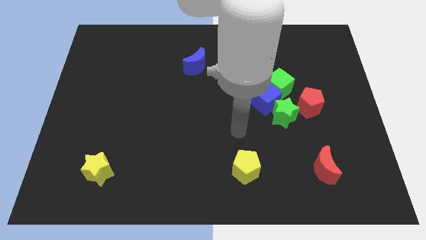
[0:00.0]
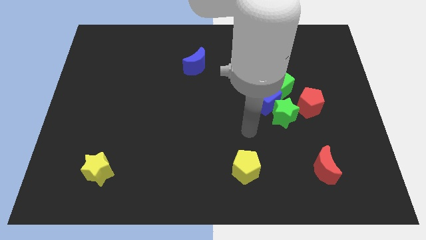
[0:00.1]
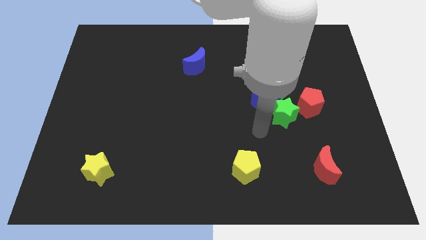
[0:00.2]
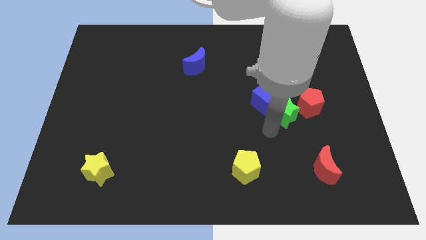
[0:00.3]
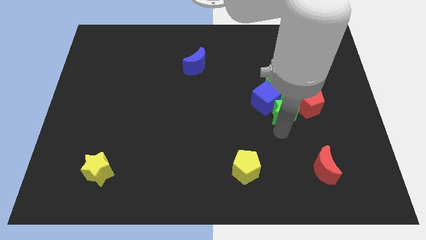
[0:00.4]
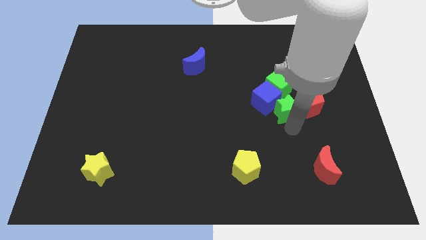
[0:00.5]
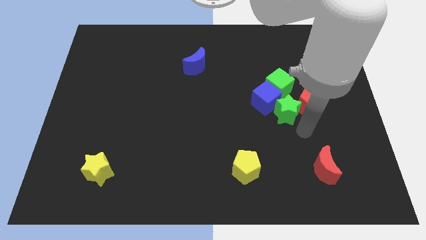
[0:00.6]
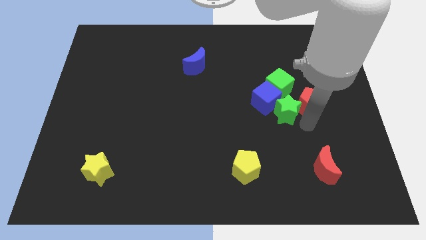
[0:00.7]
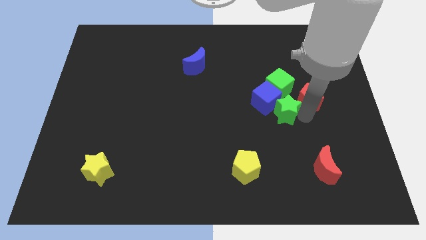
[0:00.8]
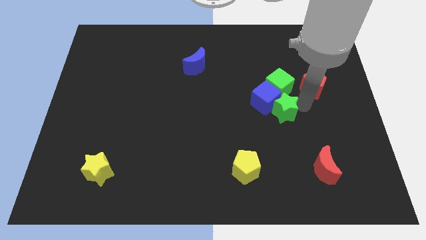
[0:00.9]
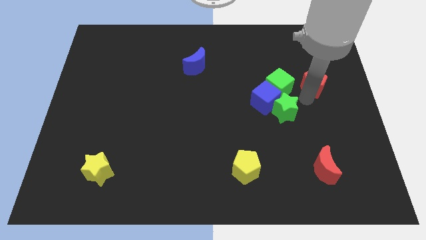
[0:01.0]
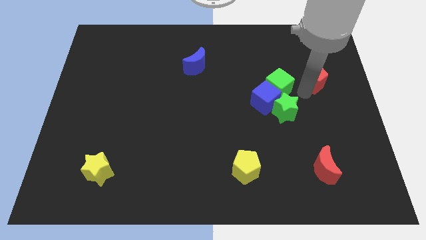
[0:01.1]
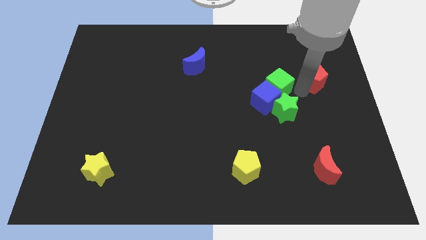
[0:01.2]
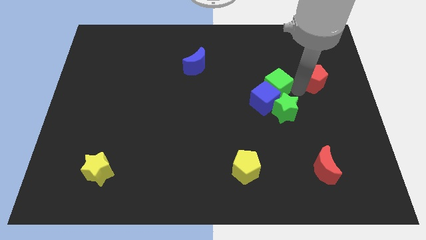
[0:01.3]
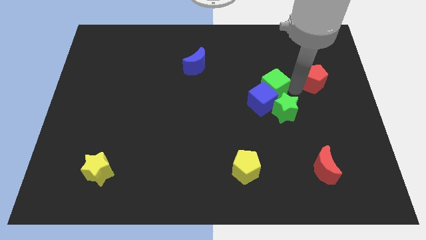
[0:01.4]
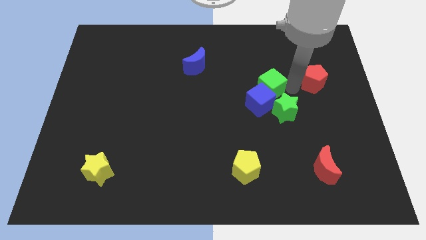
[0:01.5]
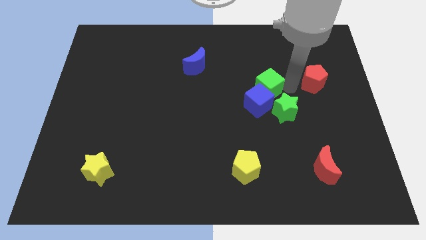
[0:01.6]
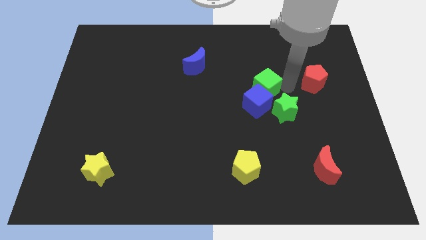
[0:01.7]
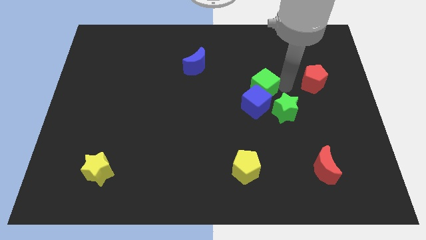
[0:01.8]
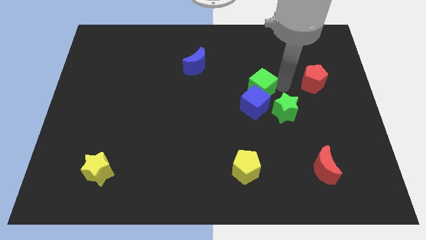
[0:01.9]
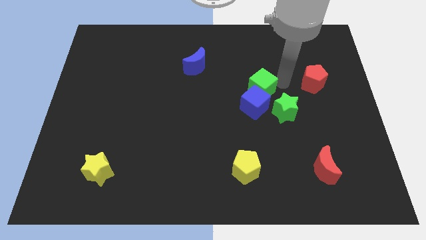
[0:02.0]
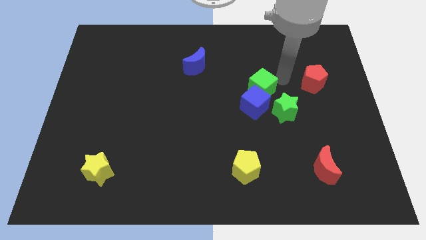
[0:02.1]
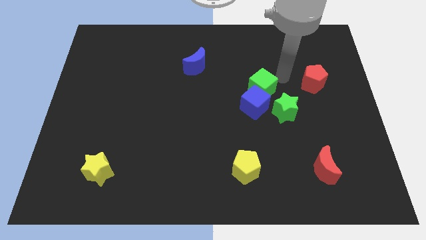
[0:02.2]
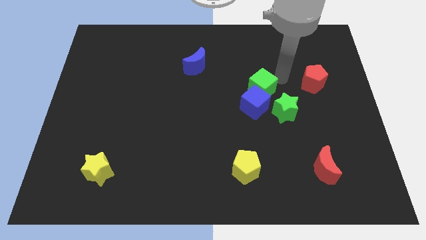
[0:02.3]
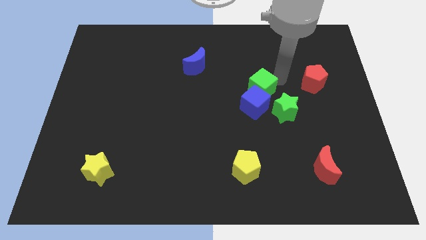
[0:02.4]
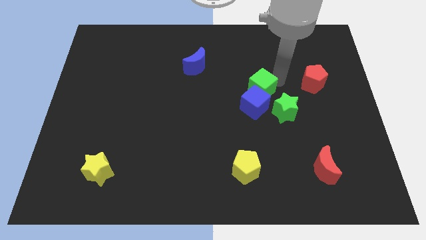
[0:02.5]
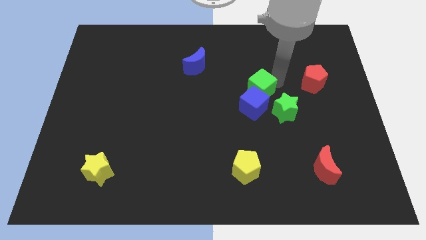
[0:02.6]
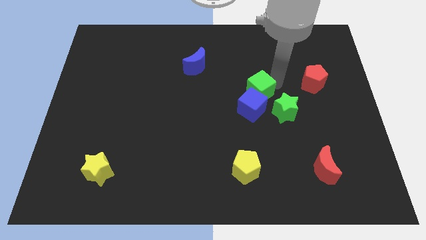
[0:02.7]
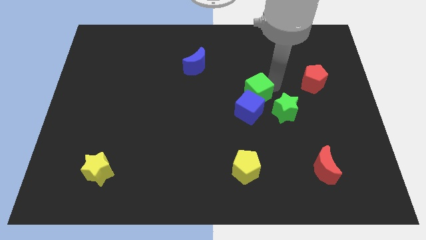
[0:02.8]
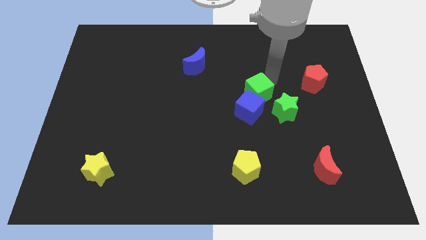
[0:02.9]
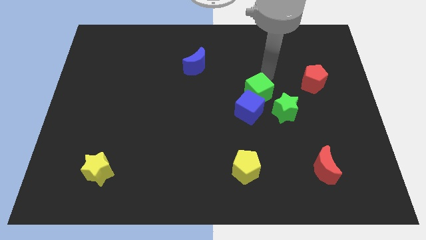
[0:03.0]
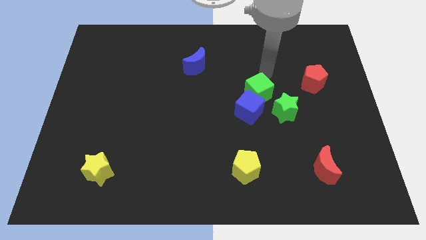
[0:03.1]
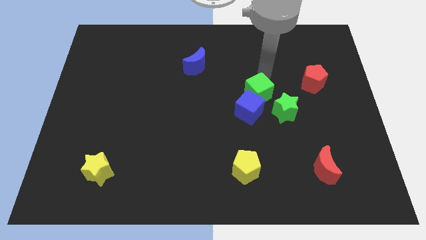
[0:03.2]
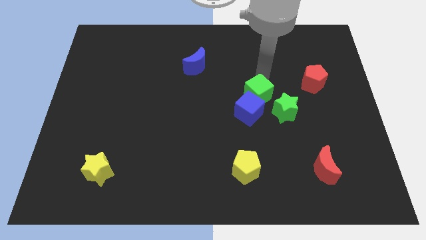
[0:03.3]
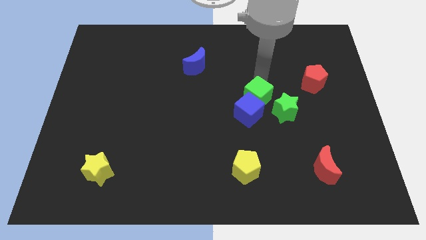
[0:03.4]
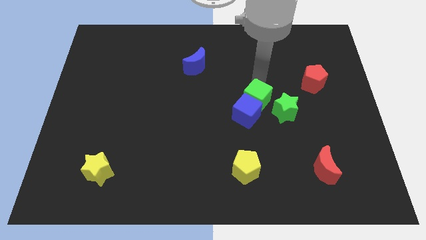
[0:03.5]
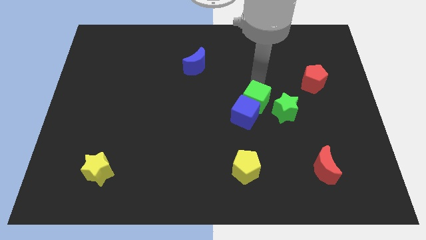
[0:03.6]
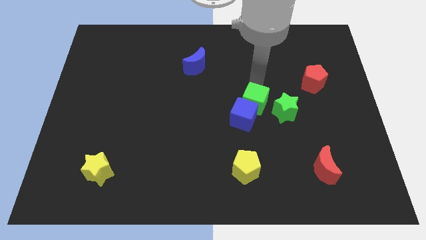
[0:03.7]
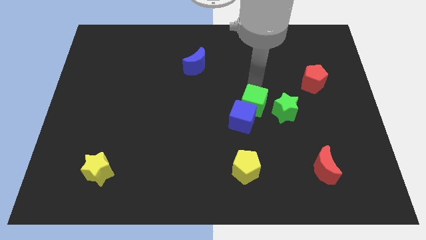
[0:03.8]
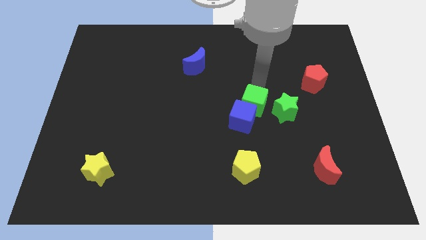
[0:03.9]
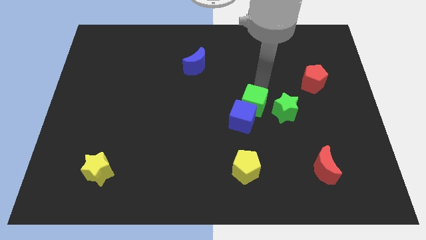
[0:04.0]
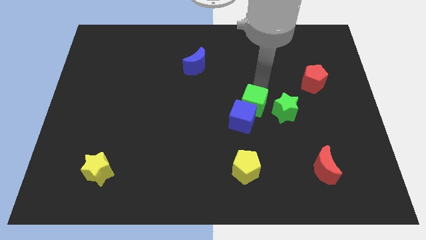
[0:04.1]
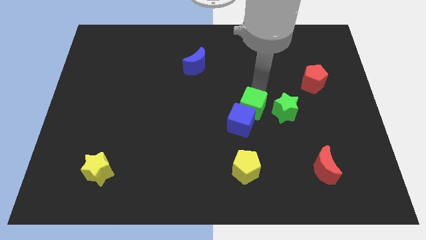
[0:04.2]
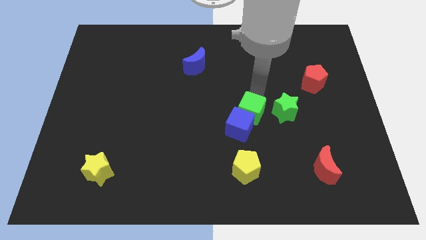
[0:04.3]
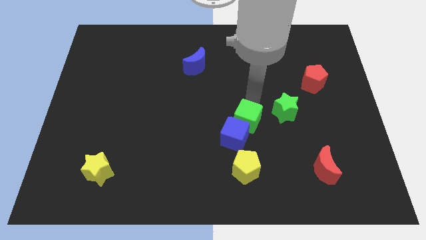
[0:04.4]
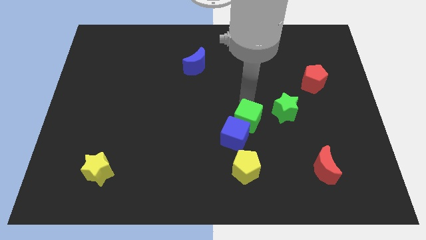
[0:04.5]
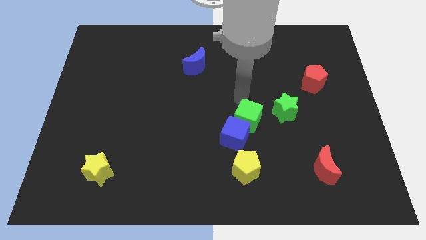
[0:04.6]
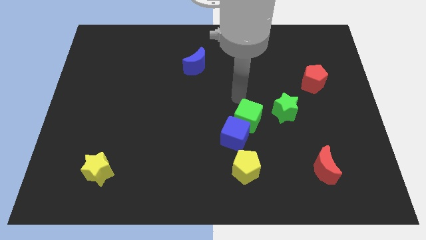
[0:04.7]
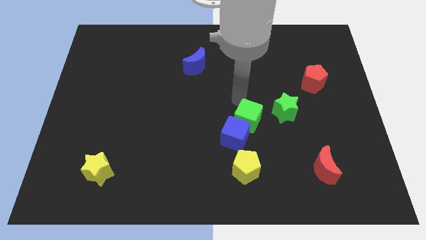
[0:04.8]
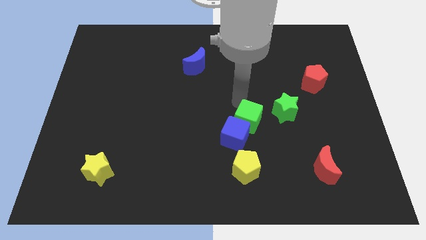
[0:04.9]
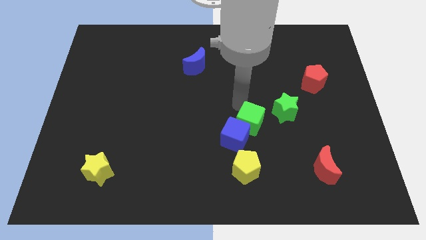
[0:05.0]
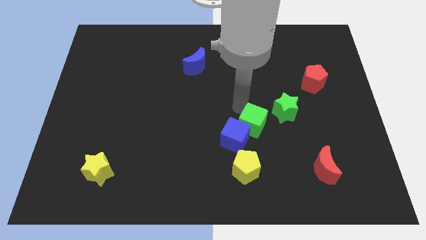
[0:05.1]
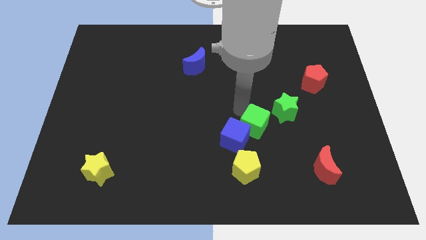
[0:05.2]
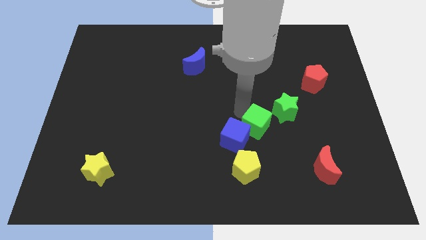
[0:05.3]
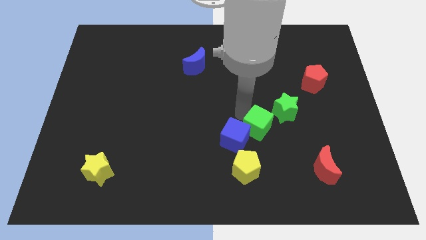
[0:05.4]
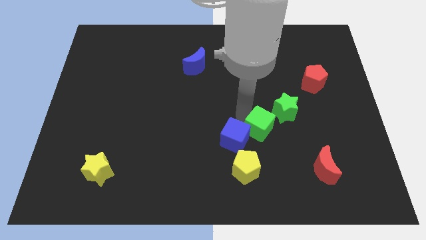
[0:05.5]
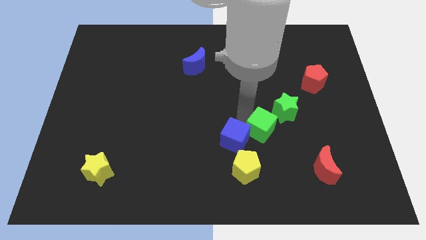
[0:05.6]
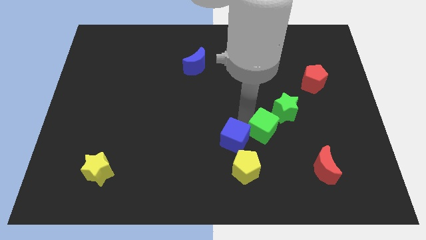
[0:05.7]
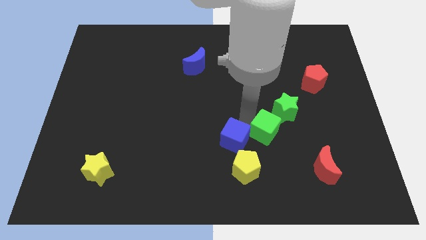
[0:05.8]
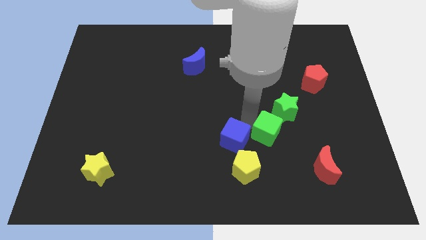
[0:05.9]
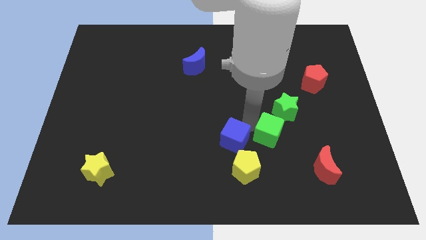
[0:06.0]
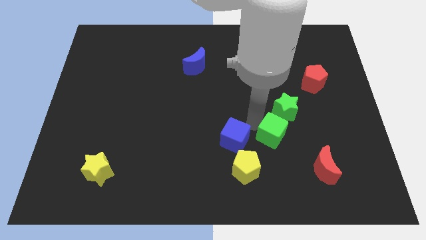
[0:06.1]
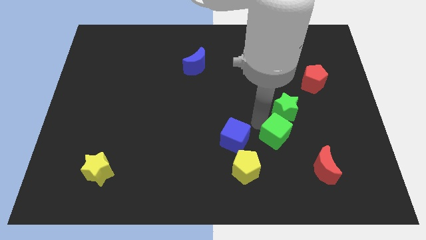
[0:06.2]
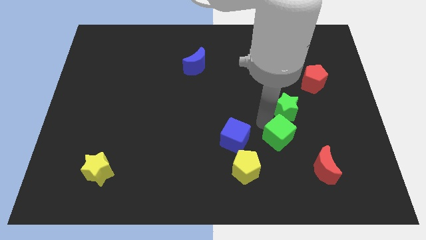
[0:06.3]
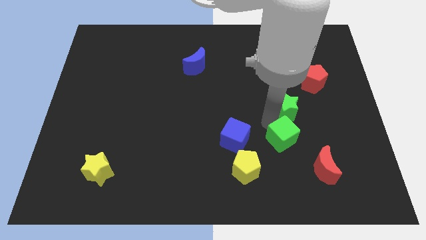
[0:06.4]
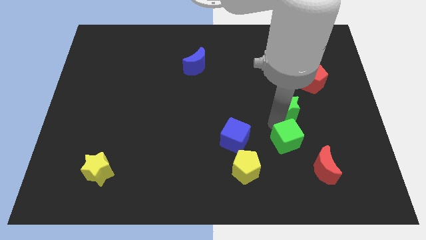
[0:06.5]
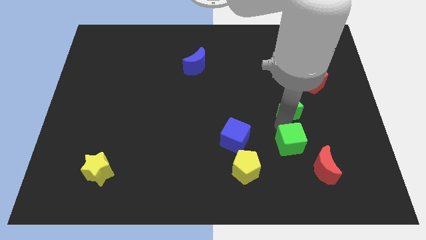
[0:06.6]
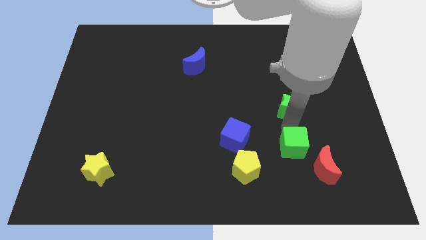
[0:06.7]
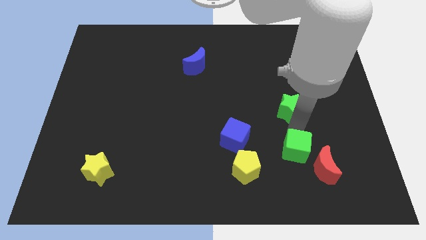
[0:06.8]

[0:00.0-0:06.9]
push the green cube to the left side of the red moon

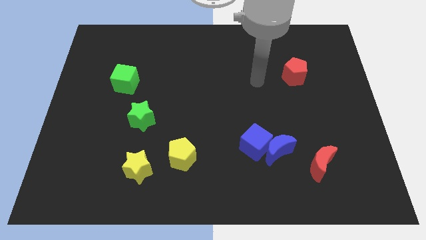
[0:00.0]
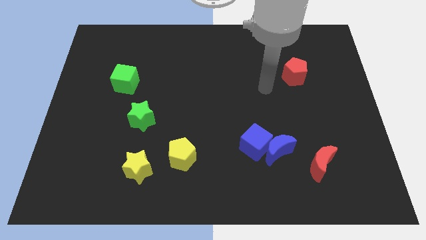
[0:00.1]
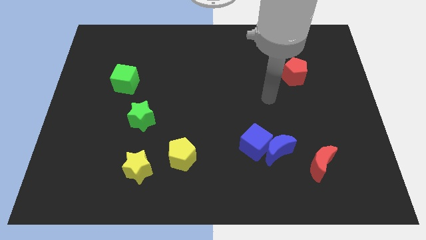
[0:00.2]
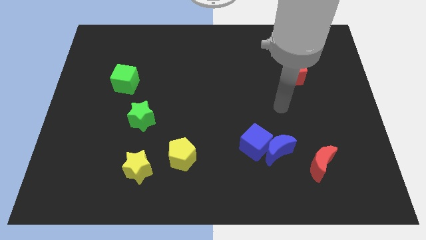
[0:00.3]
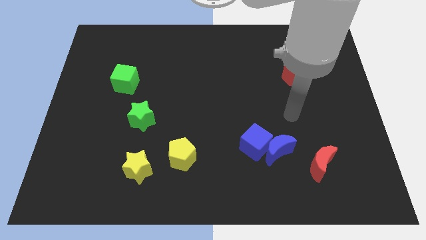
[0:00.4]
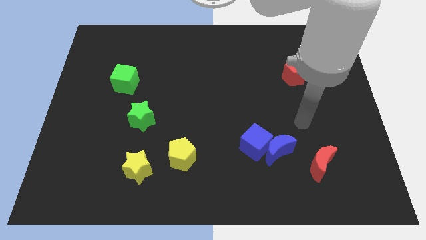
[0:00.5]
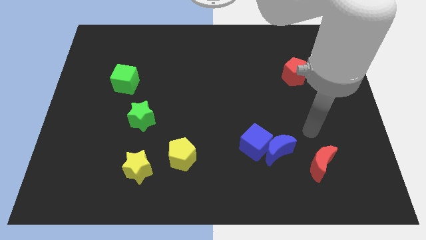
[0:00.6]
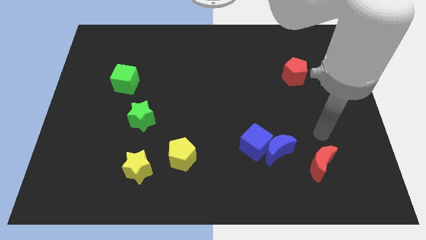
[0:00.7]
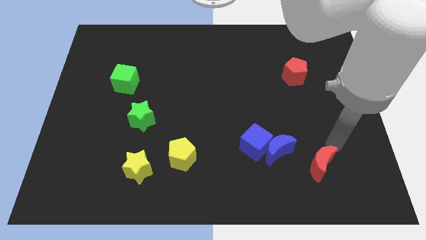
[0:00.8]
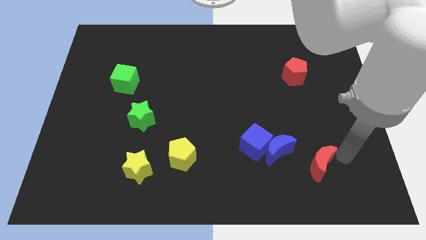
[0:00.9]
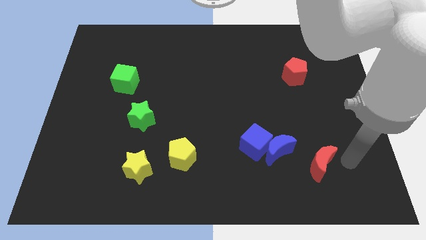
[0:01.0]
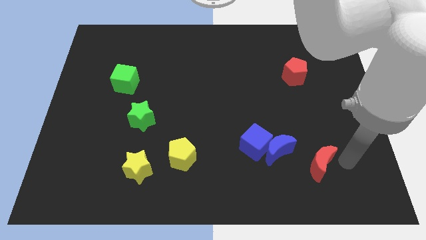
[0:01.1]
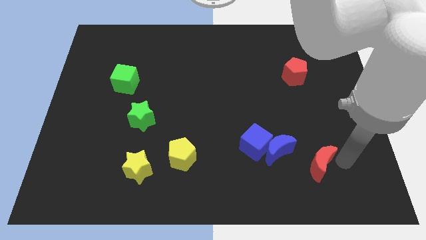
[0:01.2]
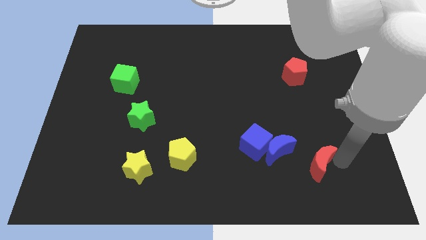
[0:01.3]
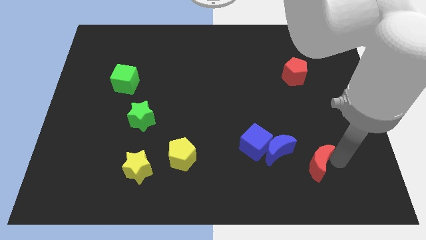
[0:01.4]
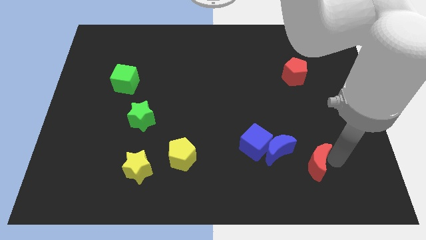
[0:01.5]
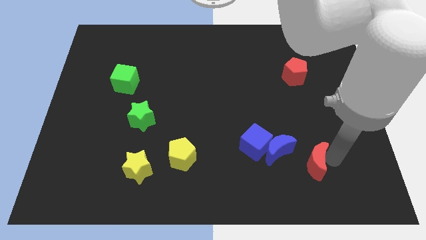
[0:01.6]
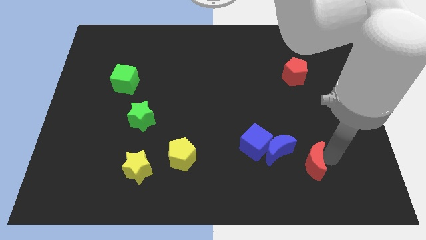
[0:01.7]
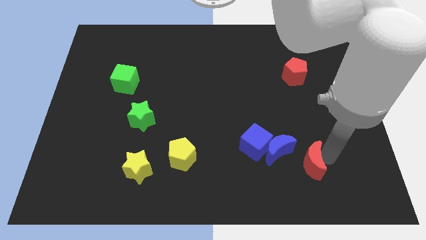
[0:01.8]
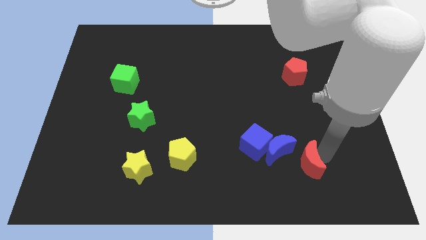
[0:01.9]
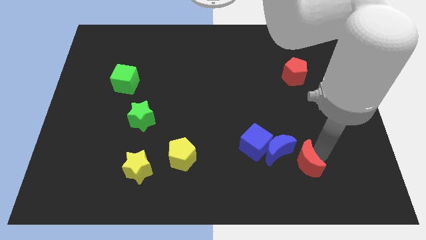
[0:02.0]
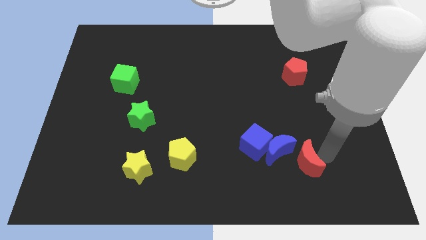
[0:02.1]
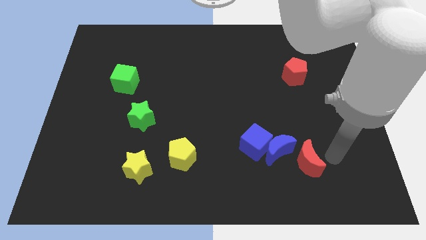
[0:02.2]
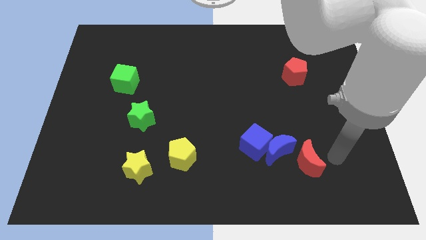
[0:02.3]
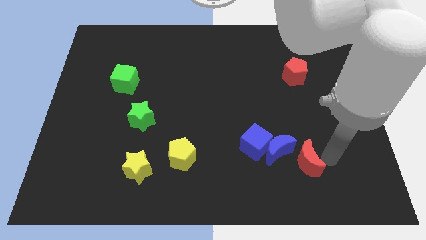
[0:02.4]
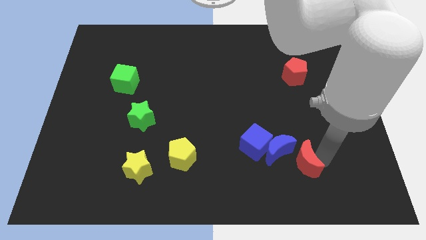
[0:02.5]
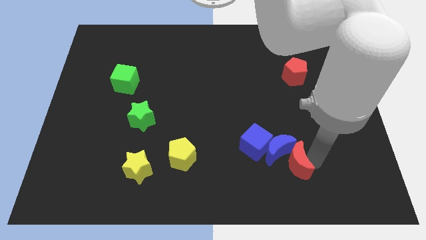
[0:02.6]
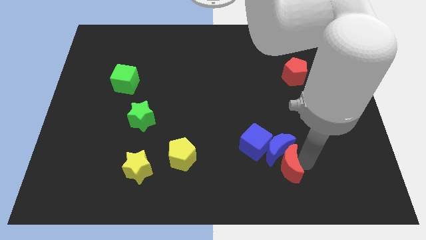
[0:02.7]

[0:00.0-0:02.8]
slide the red moon to the bottom left of the blue moon
